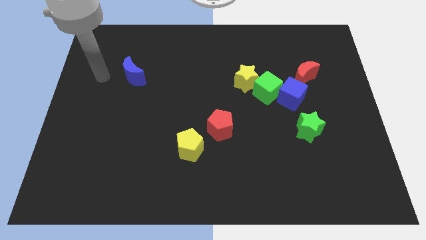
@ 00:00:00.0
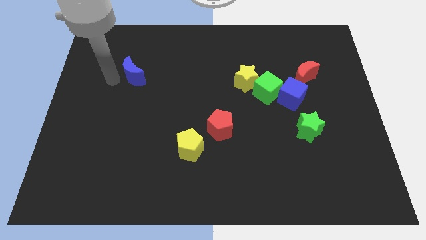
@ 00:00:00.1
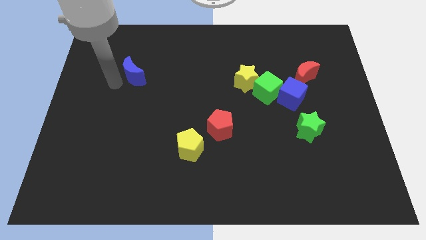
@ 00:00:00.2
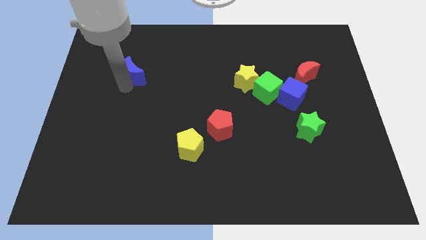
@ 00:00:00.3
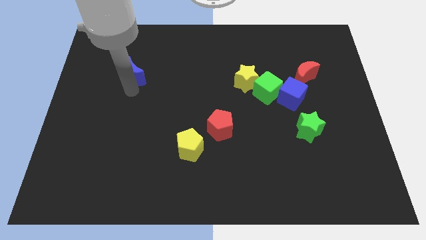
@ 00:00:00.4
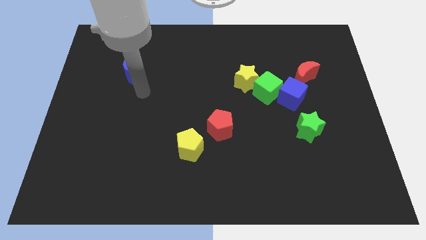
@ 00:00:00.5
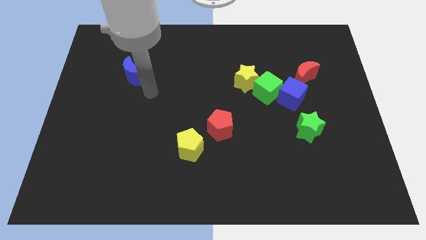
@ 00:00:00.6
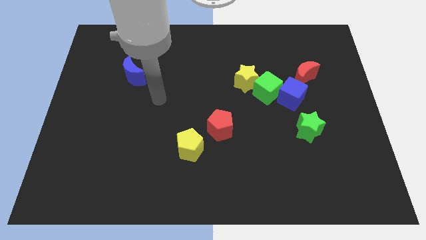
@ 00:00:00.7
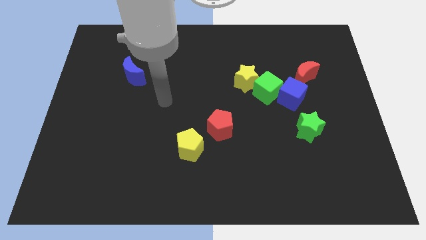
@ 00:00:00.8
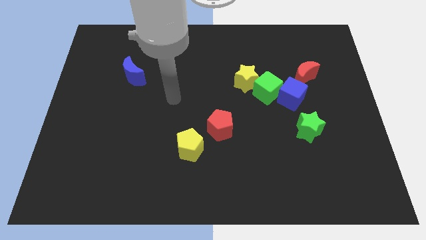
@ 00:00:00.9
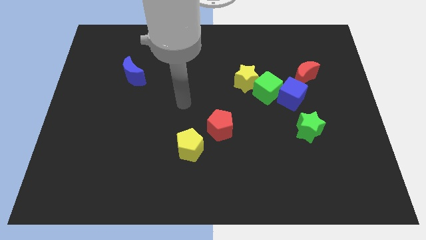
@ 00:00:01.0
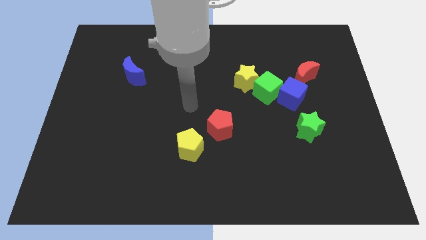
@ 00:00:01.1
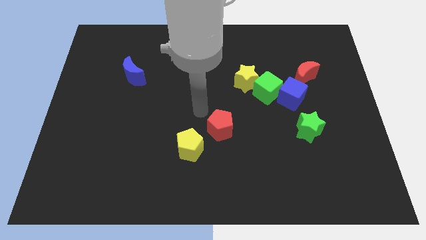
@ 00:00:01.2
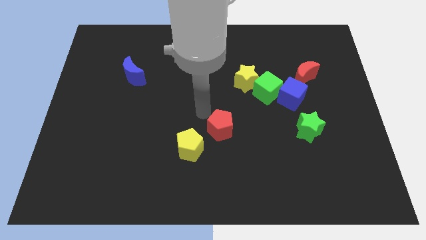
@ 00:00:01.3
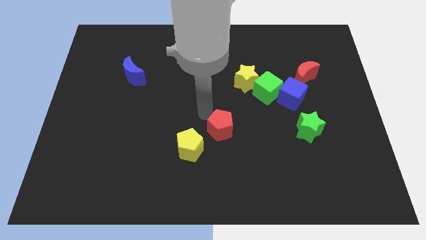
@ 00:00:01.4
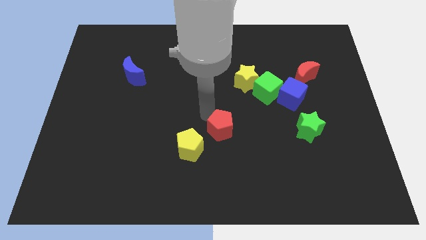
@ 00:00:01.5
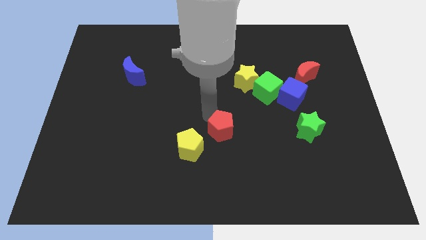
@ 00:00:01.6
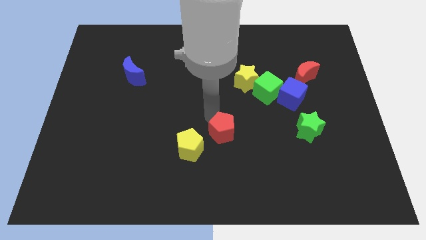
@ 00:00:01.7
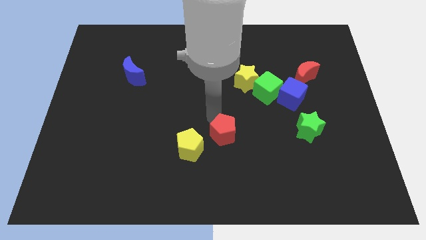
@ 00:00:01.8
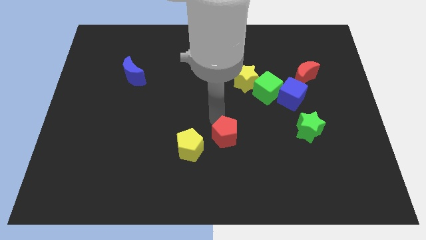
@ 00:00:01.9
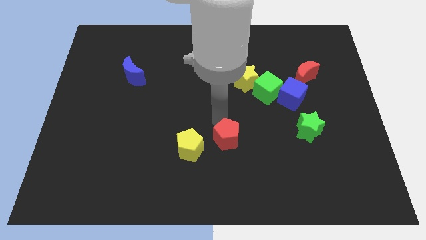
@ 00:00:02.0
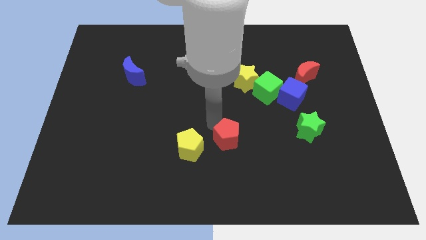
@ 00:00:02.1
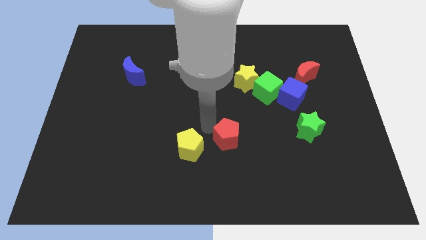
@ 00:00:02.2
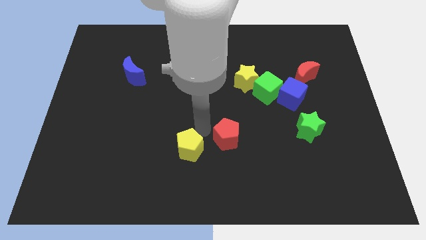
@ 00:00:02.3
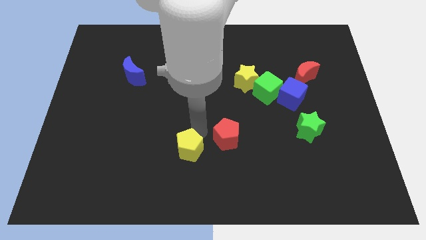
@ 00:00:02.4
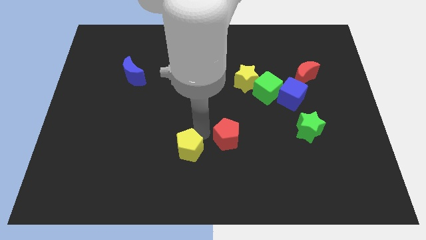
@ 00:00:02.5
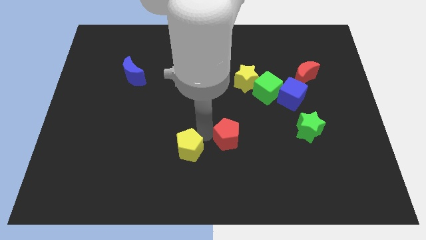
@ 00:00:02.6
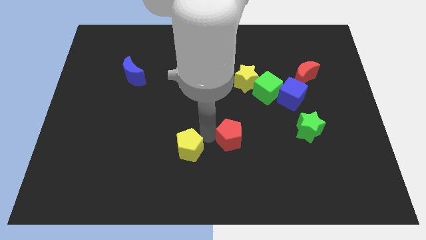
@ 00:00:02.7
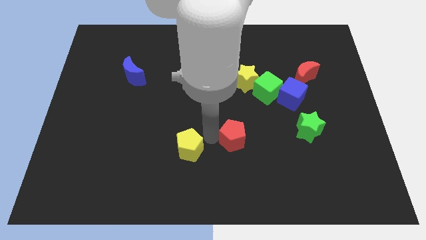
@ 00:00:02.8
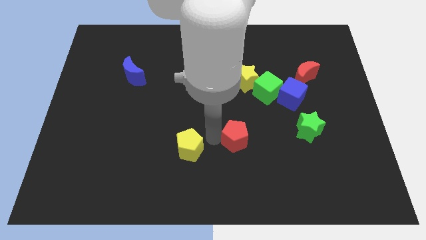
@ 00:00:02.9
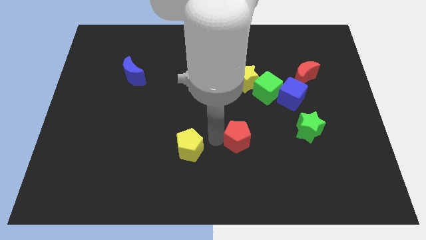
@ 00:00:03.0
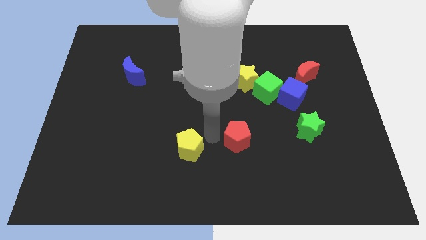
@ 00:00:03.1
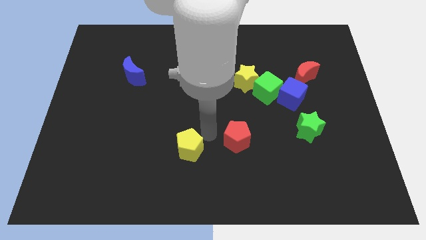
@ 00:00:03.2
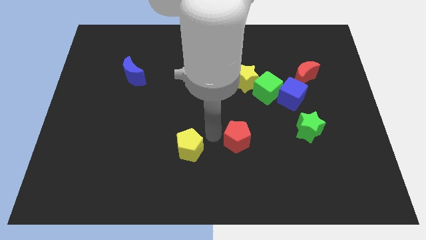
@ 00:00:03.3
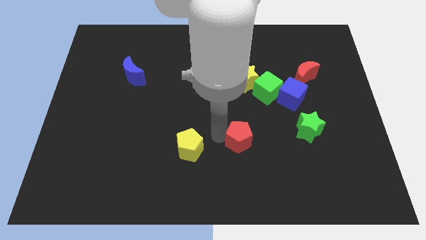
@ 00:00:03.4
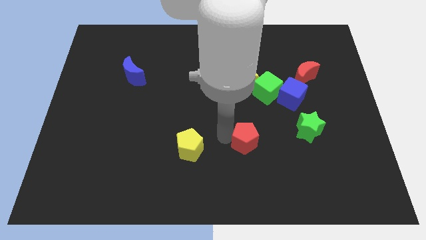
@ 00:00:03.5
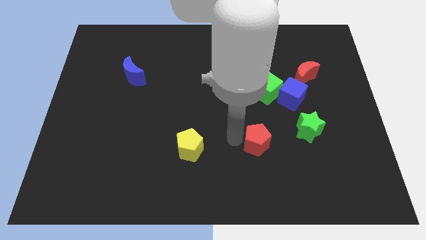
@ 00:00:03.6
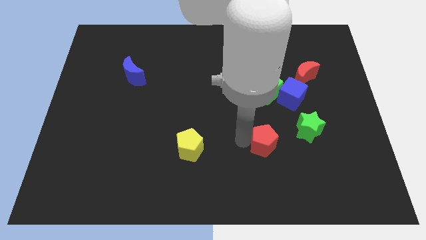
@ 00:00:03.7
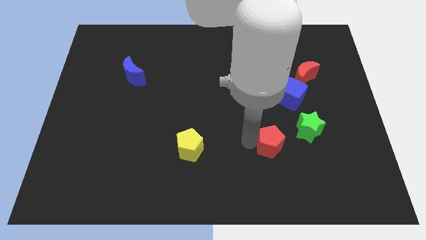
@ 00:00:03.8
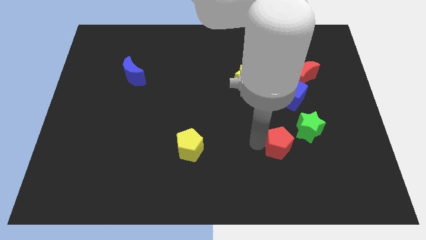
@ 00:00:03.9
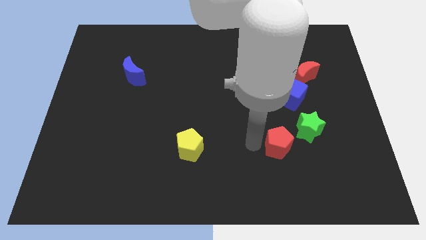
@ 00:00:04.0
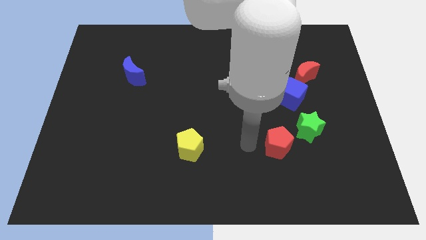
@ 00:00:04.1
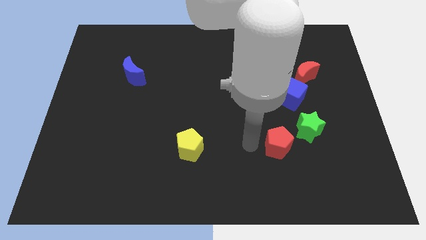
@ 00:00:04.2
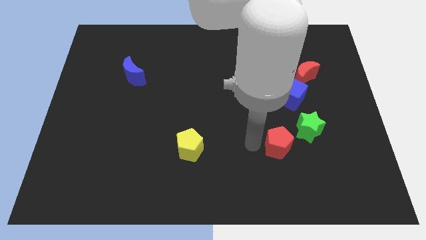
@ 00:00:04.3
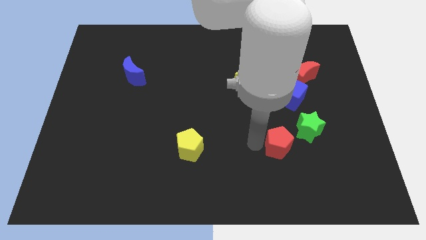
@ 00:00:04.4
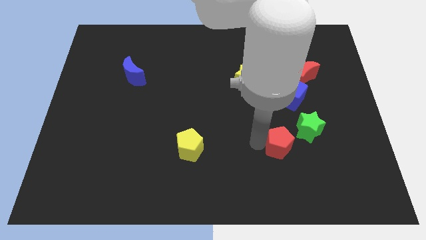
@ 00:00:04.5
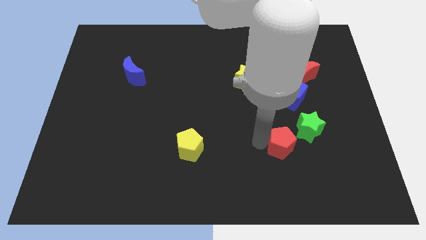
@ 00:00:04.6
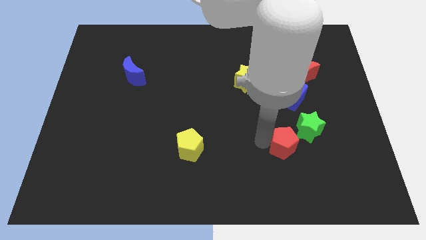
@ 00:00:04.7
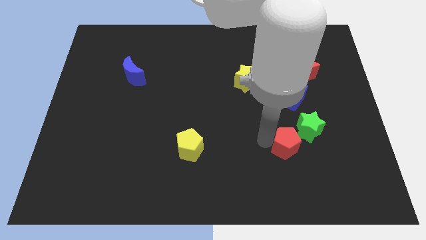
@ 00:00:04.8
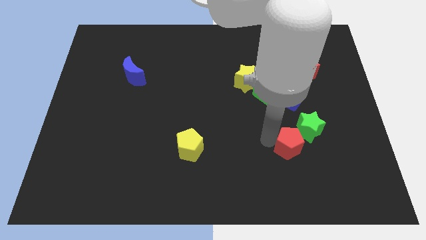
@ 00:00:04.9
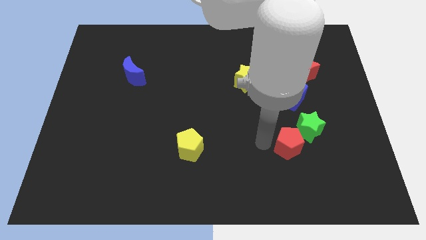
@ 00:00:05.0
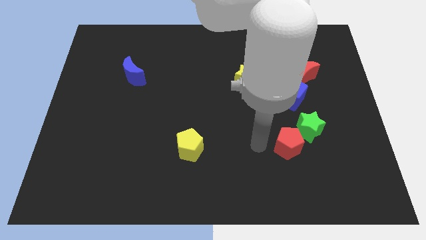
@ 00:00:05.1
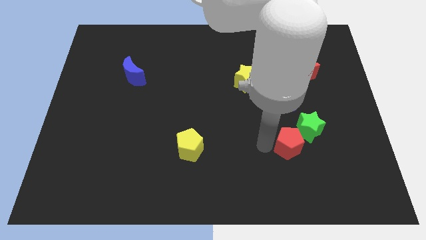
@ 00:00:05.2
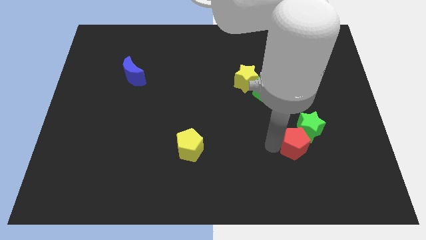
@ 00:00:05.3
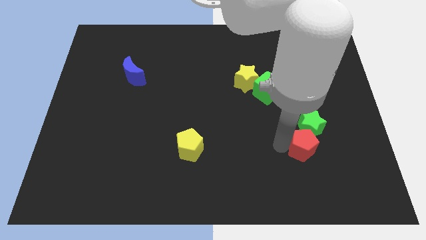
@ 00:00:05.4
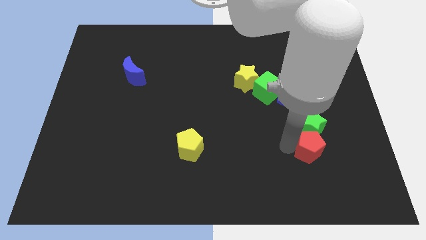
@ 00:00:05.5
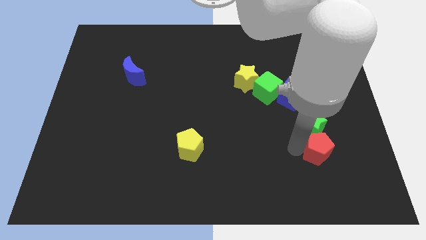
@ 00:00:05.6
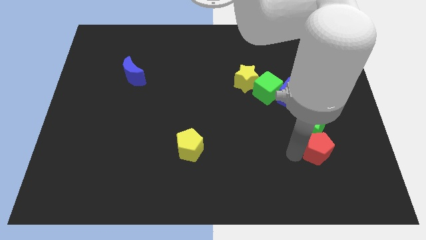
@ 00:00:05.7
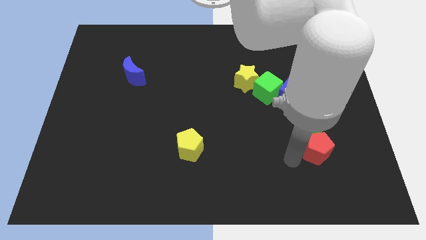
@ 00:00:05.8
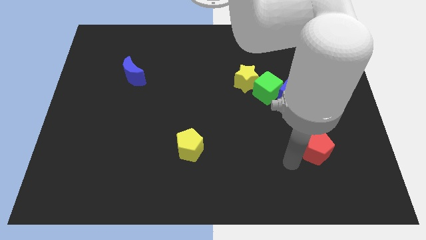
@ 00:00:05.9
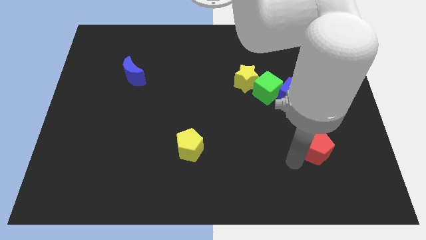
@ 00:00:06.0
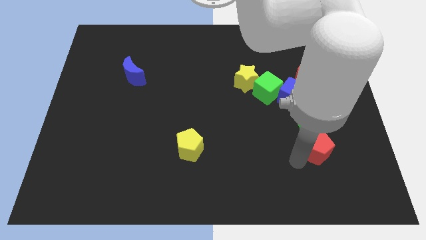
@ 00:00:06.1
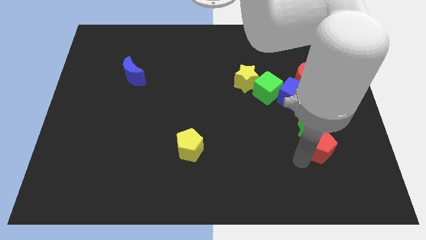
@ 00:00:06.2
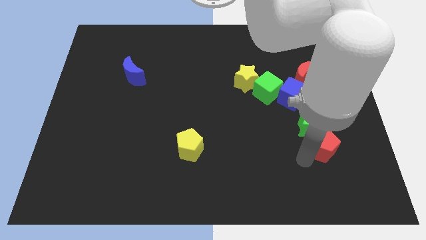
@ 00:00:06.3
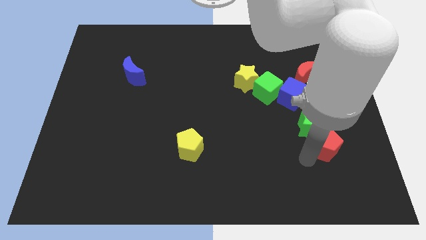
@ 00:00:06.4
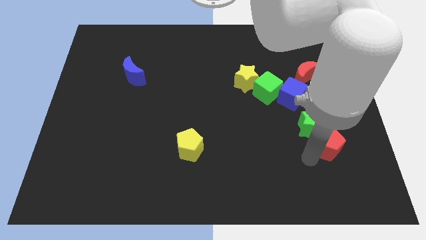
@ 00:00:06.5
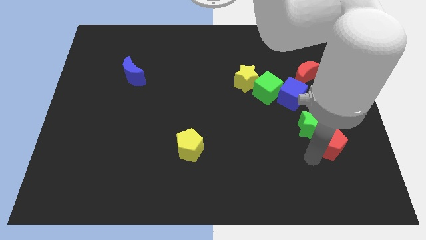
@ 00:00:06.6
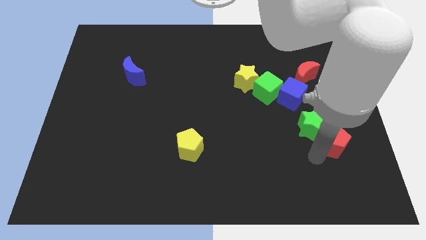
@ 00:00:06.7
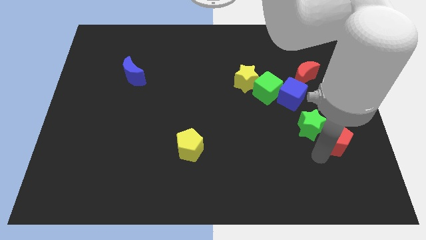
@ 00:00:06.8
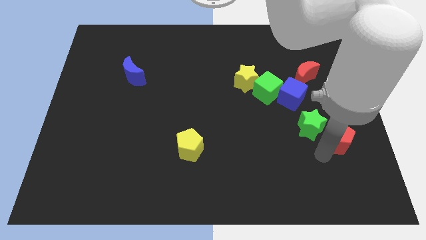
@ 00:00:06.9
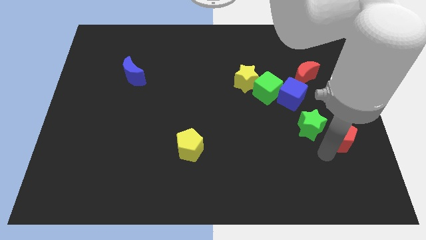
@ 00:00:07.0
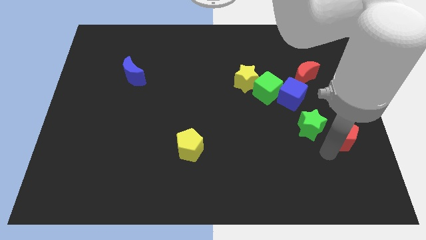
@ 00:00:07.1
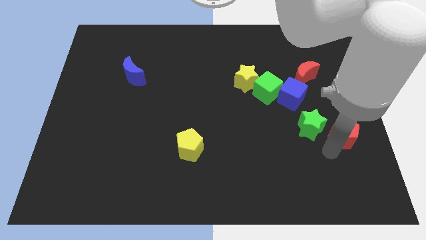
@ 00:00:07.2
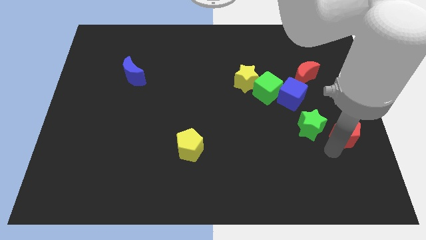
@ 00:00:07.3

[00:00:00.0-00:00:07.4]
put the red pentagon to the right side of the board
